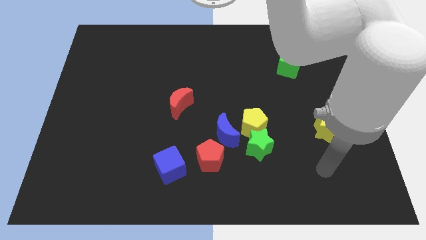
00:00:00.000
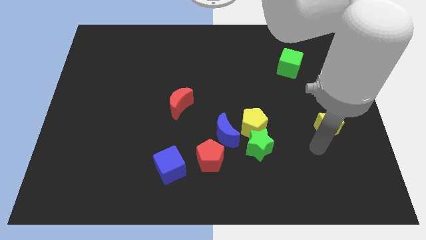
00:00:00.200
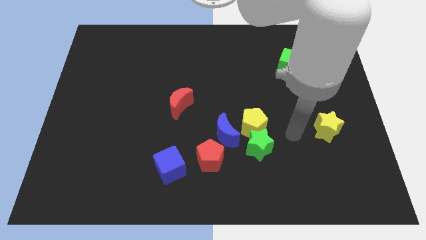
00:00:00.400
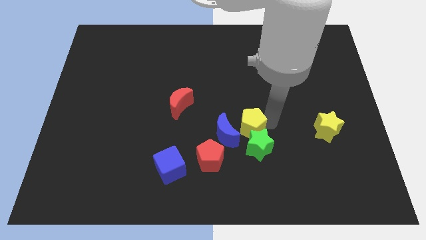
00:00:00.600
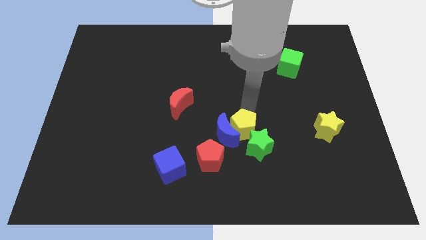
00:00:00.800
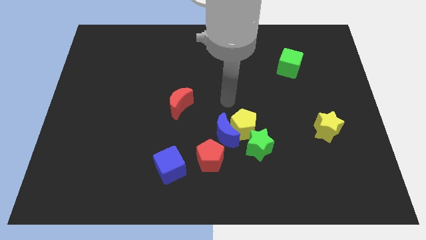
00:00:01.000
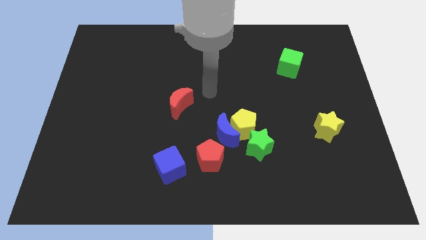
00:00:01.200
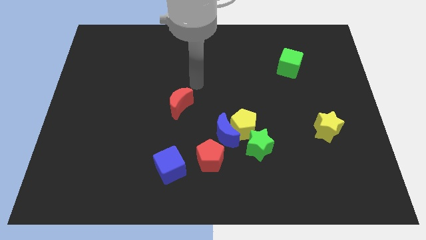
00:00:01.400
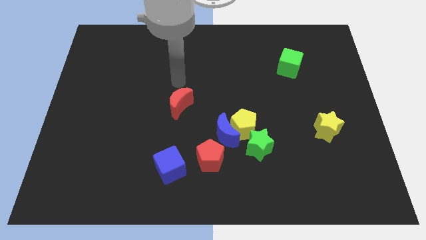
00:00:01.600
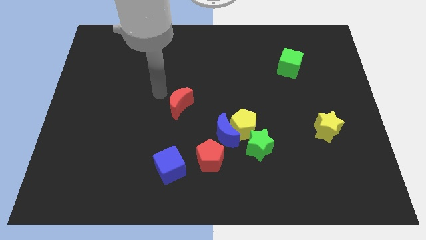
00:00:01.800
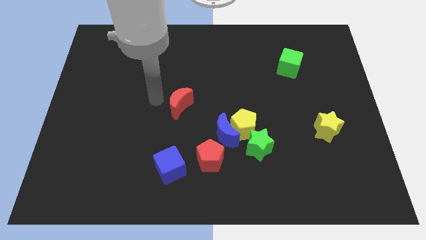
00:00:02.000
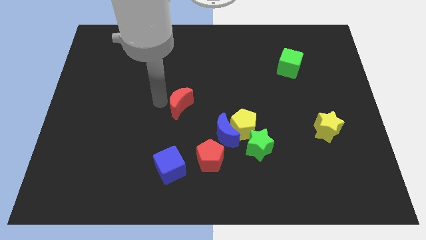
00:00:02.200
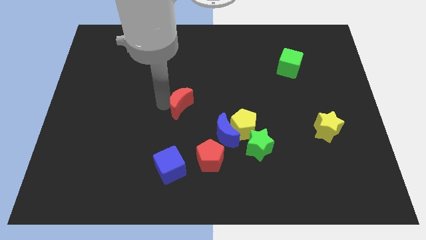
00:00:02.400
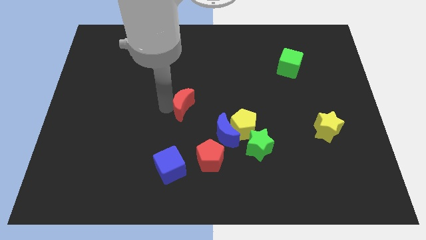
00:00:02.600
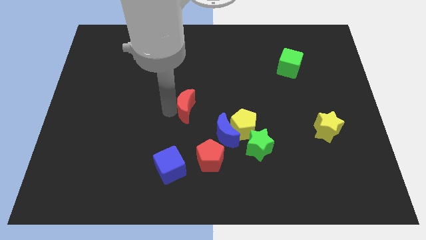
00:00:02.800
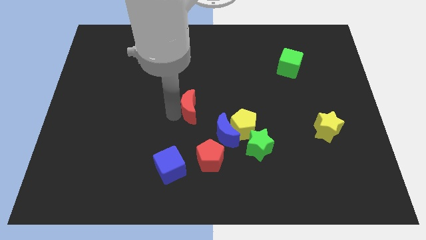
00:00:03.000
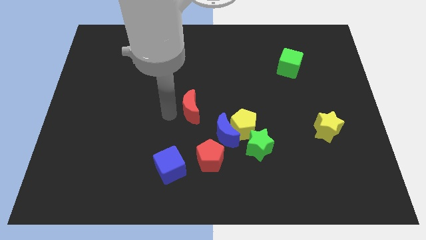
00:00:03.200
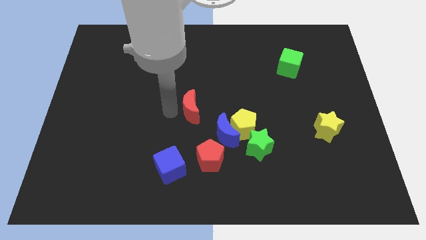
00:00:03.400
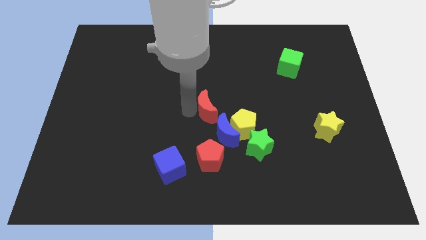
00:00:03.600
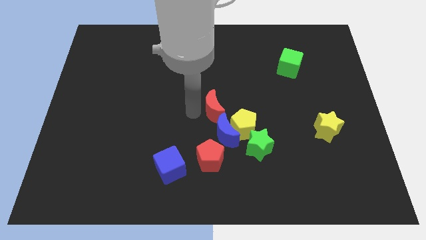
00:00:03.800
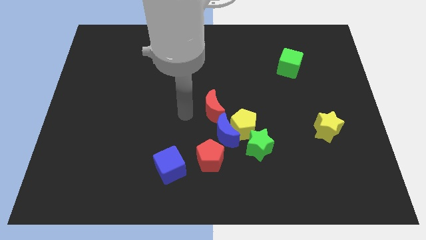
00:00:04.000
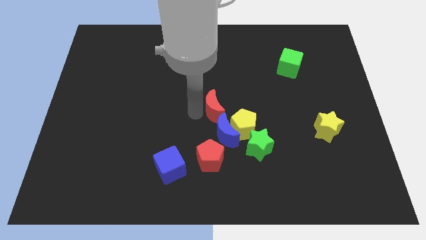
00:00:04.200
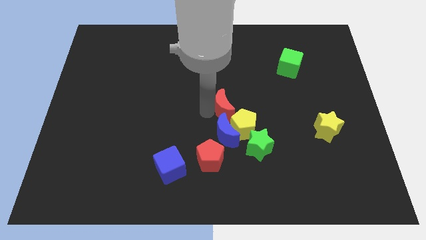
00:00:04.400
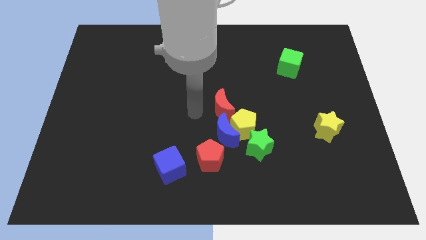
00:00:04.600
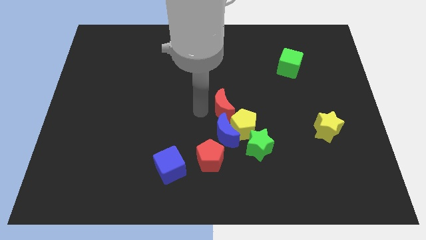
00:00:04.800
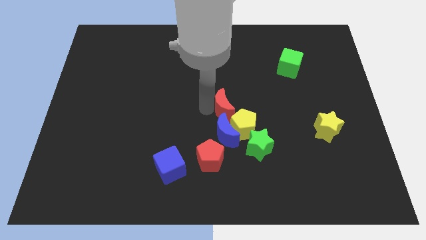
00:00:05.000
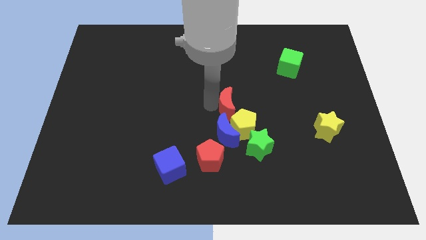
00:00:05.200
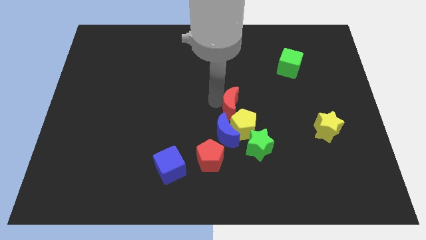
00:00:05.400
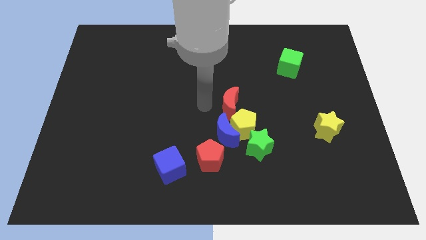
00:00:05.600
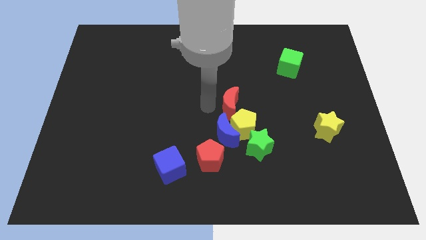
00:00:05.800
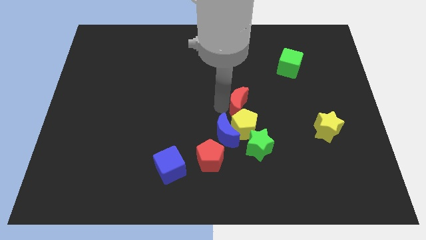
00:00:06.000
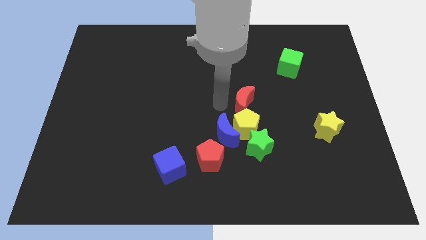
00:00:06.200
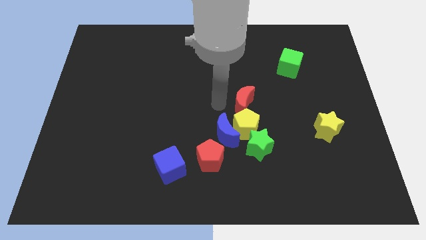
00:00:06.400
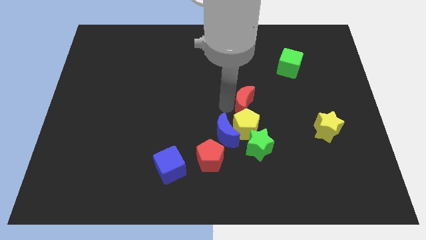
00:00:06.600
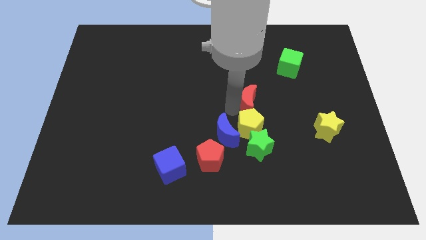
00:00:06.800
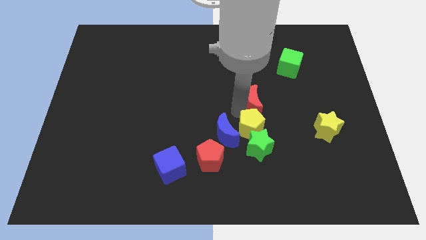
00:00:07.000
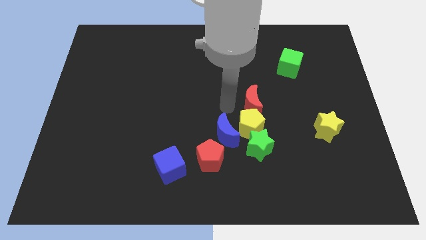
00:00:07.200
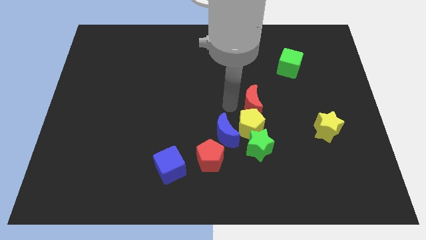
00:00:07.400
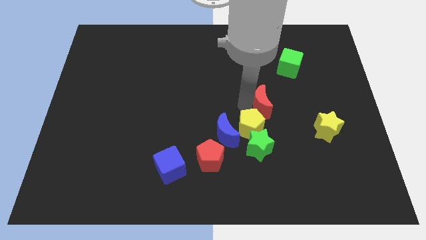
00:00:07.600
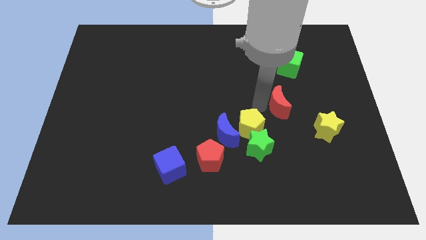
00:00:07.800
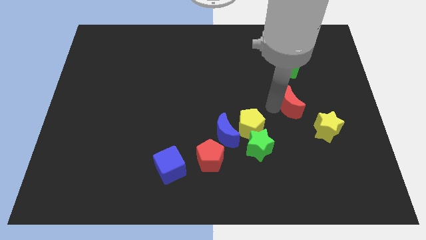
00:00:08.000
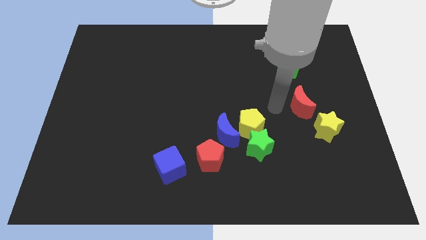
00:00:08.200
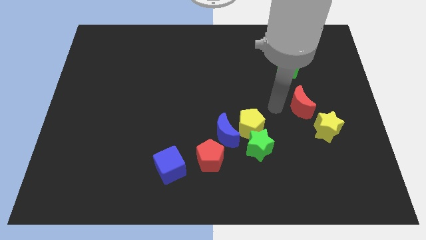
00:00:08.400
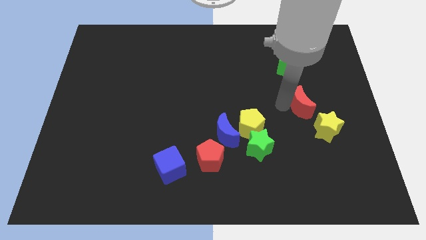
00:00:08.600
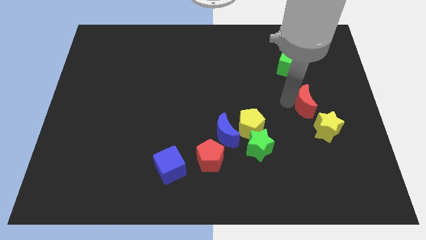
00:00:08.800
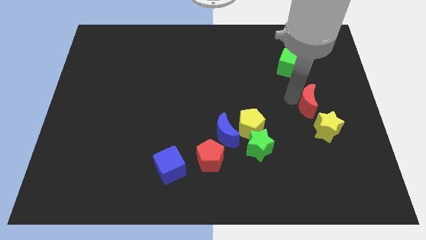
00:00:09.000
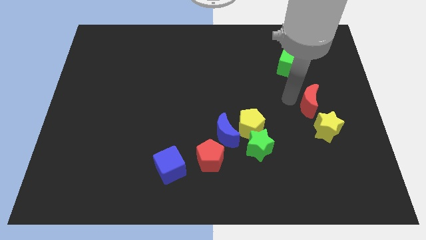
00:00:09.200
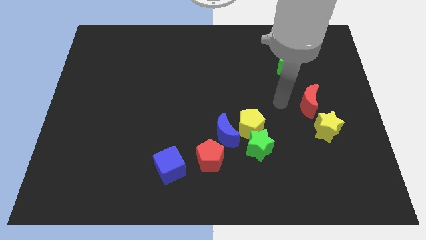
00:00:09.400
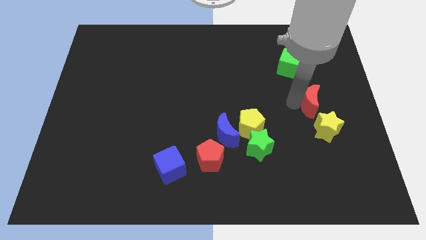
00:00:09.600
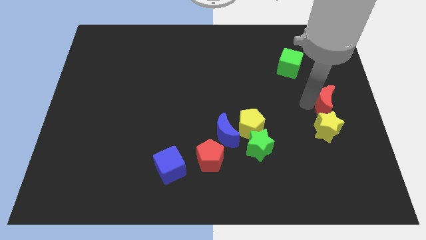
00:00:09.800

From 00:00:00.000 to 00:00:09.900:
slide the red moon to the right side of the board

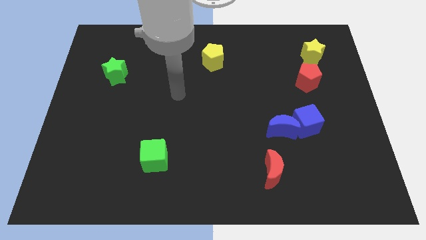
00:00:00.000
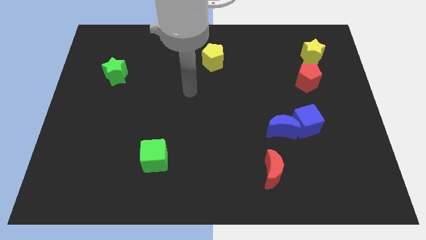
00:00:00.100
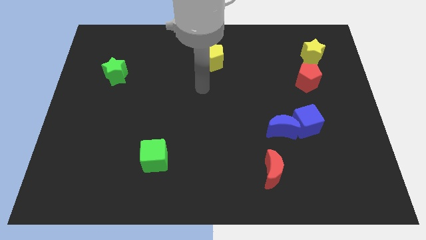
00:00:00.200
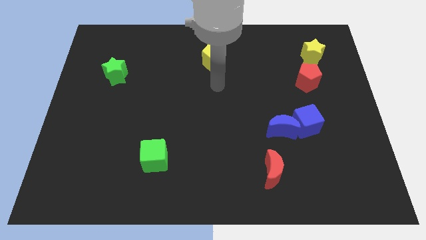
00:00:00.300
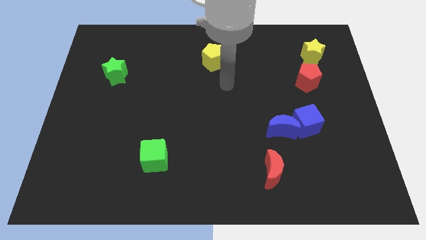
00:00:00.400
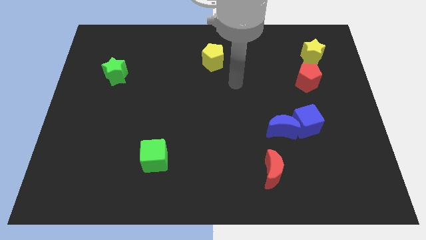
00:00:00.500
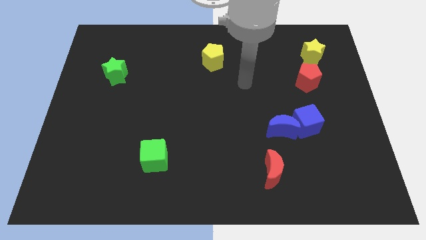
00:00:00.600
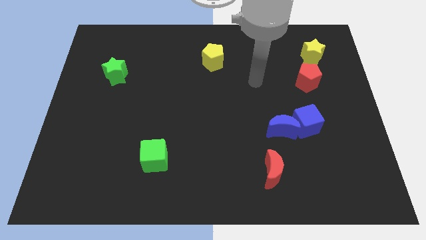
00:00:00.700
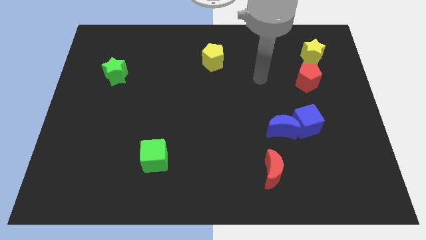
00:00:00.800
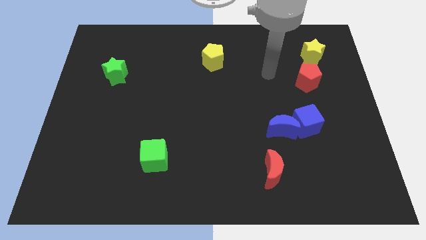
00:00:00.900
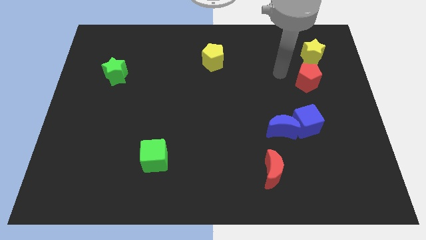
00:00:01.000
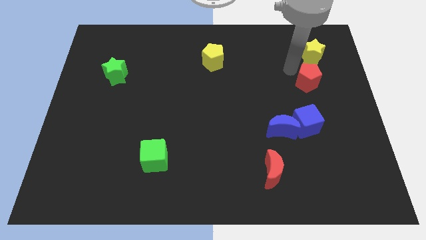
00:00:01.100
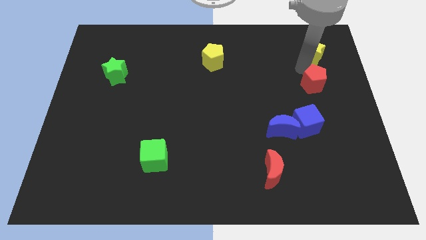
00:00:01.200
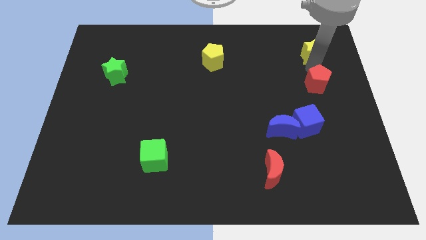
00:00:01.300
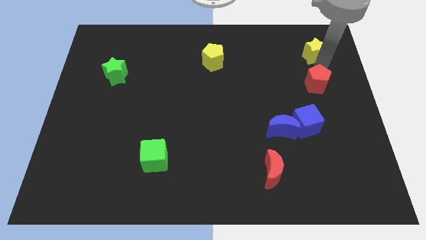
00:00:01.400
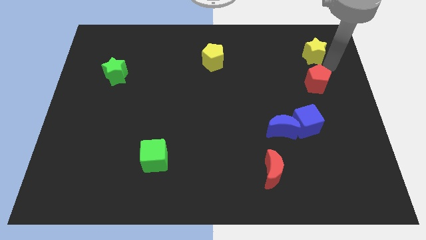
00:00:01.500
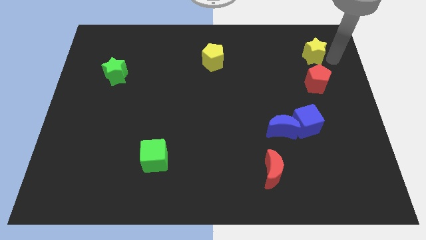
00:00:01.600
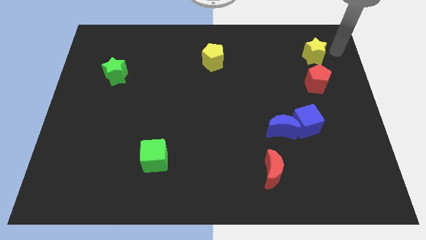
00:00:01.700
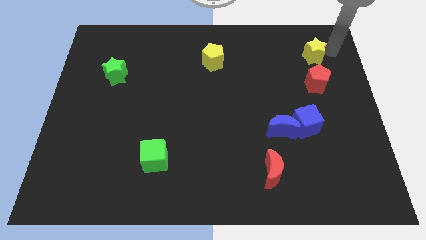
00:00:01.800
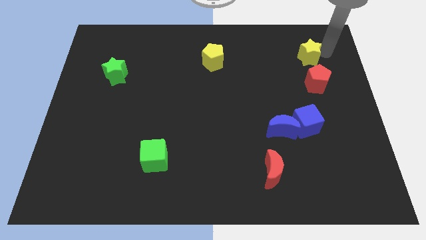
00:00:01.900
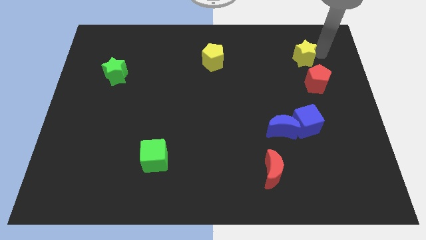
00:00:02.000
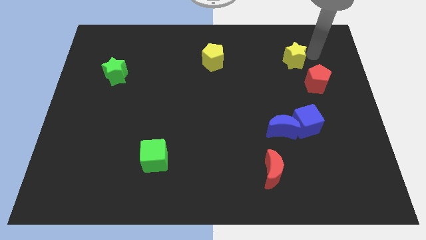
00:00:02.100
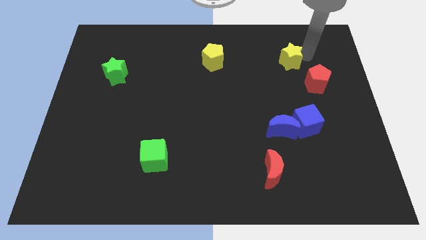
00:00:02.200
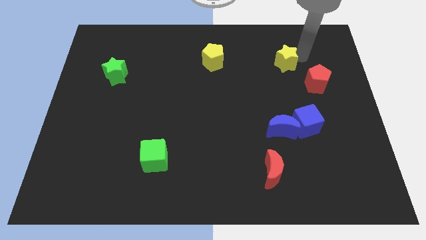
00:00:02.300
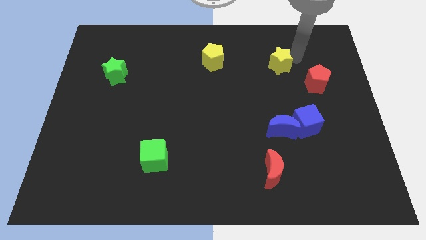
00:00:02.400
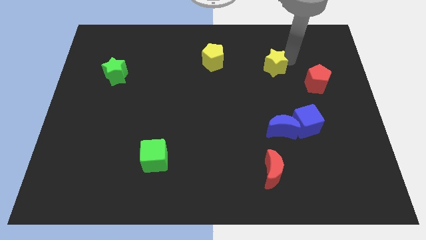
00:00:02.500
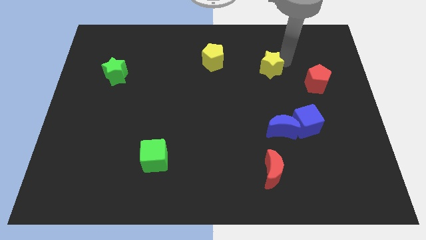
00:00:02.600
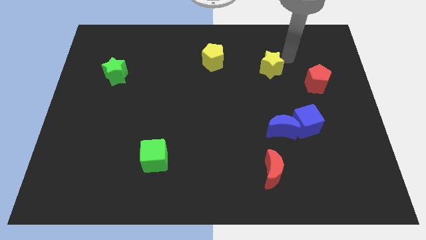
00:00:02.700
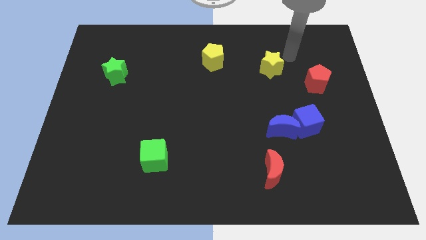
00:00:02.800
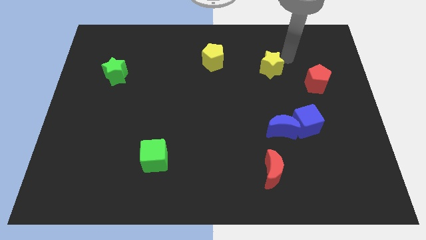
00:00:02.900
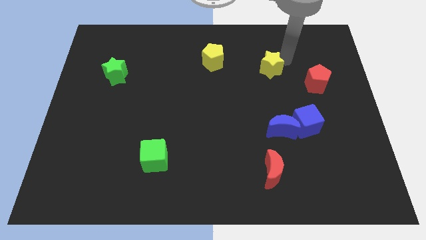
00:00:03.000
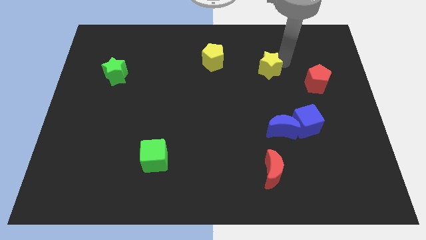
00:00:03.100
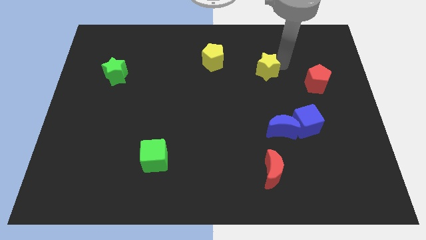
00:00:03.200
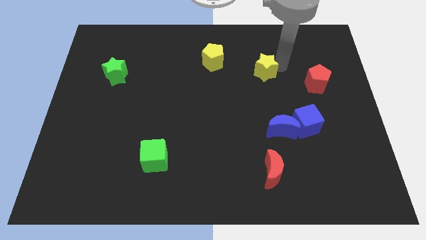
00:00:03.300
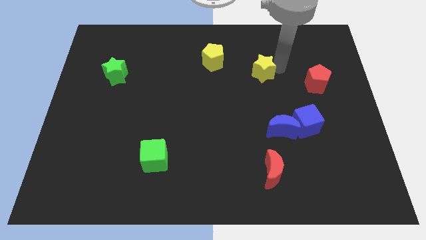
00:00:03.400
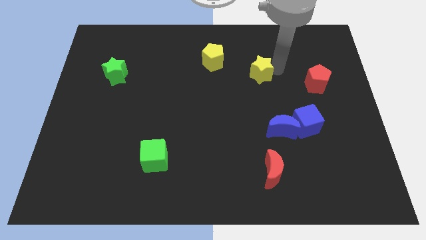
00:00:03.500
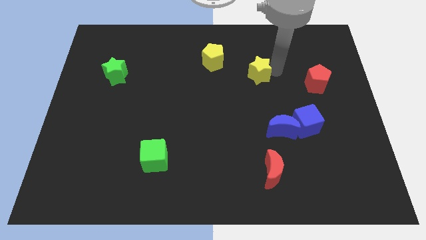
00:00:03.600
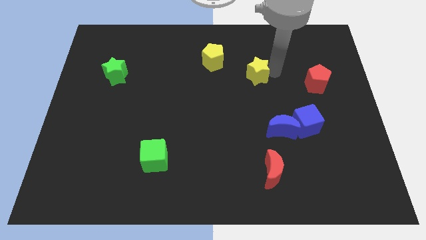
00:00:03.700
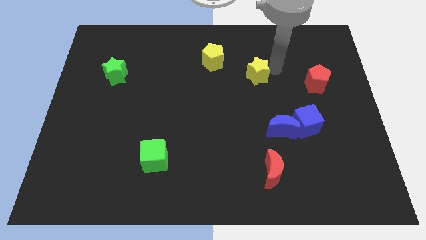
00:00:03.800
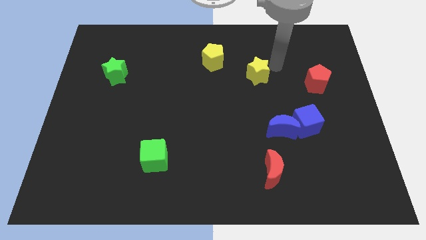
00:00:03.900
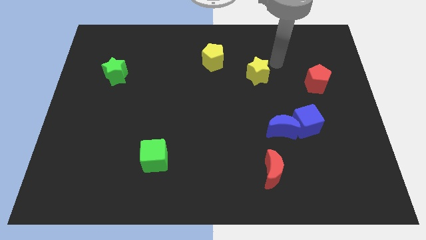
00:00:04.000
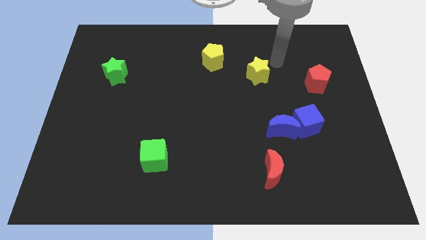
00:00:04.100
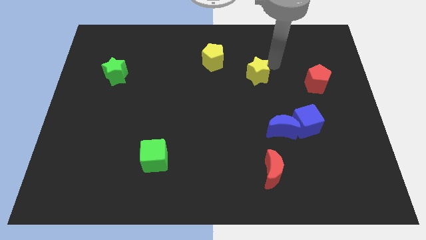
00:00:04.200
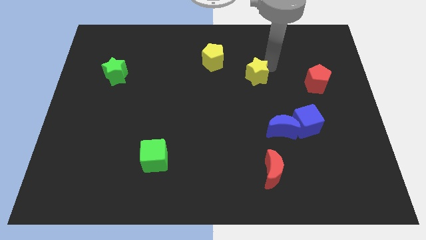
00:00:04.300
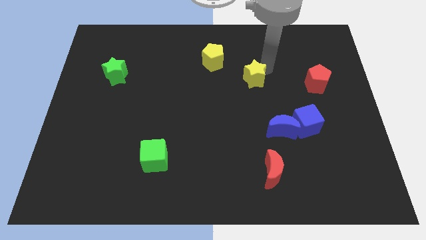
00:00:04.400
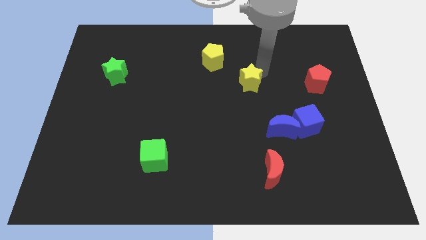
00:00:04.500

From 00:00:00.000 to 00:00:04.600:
push the yellow star to the center of the board
